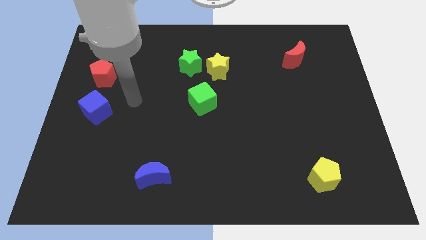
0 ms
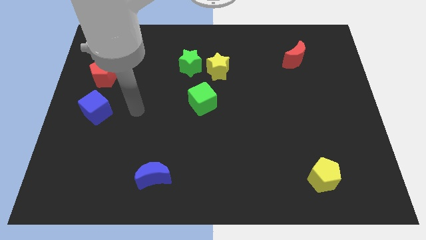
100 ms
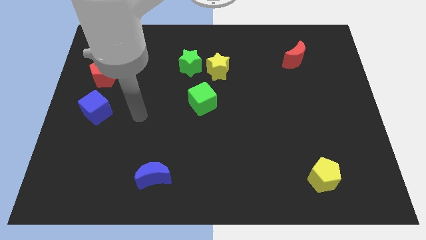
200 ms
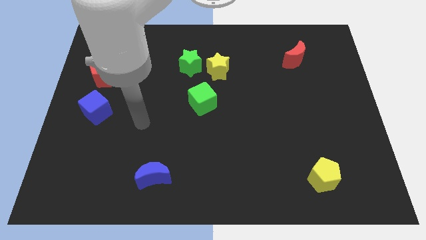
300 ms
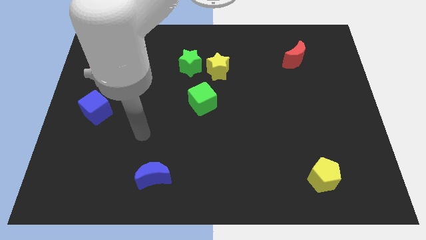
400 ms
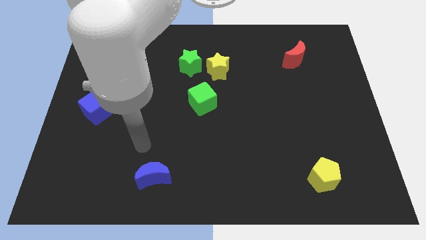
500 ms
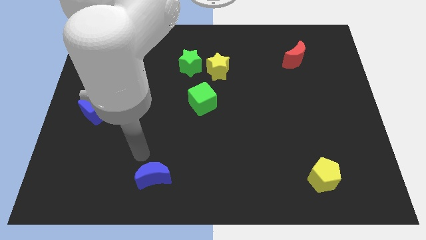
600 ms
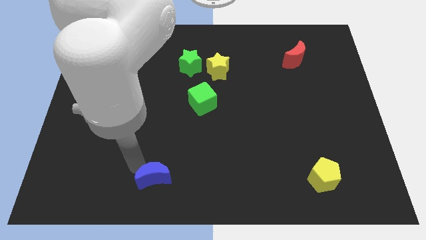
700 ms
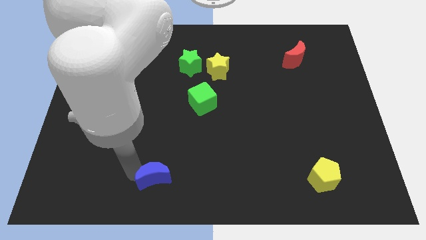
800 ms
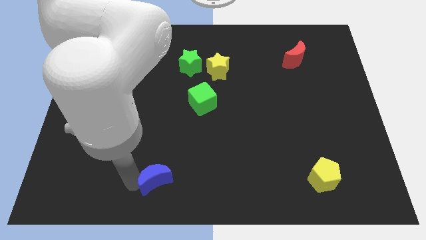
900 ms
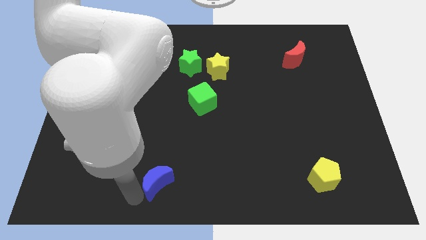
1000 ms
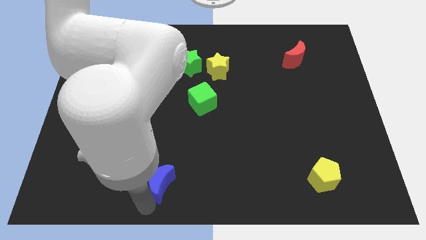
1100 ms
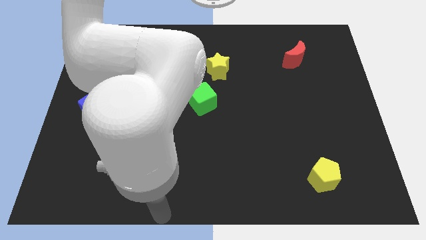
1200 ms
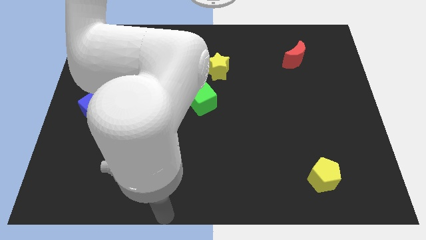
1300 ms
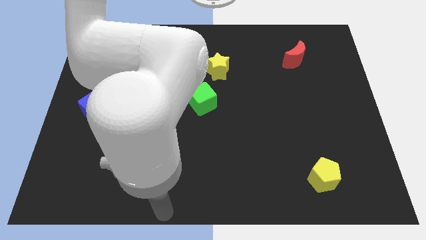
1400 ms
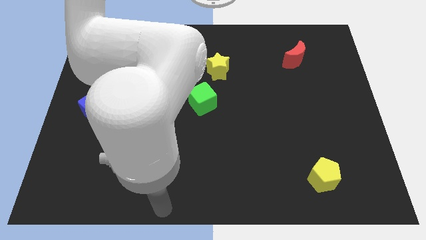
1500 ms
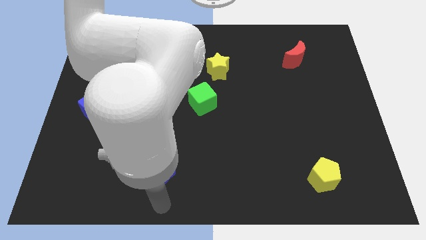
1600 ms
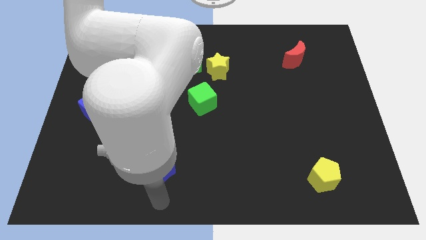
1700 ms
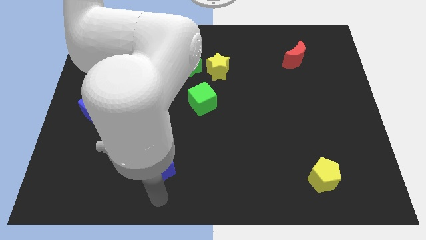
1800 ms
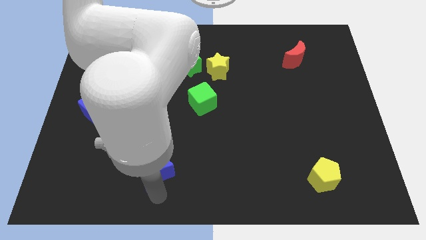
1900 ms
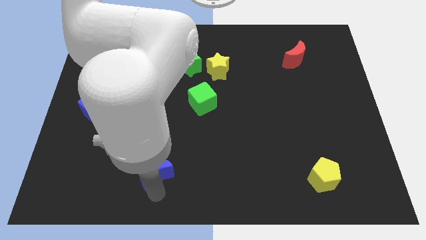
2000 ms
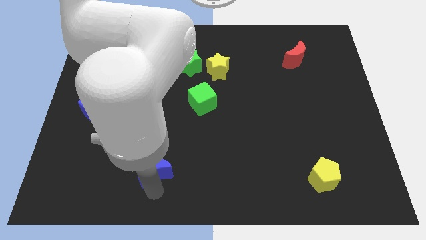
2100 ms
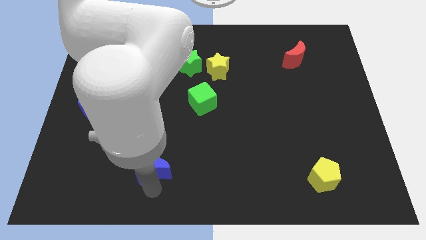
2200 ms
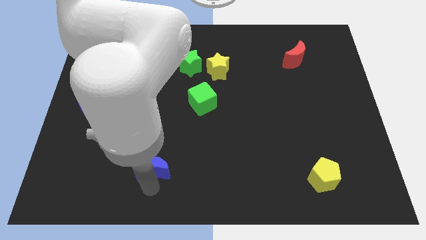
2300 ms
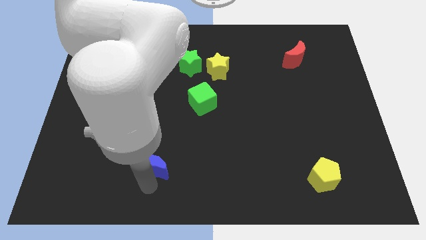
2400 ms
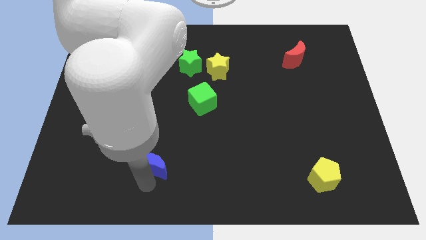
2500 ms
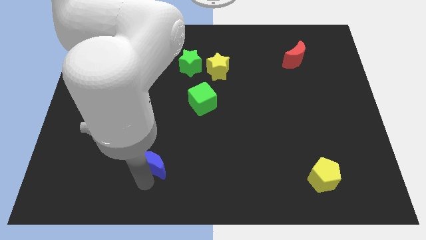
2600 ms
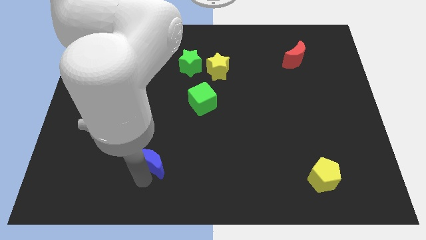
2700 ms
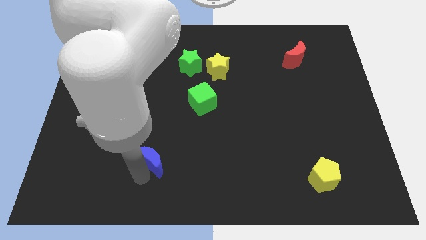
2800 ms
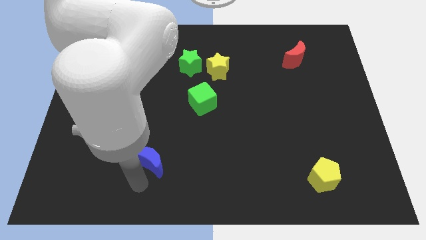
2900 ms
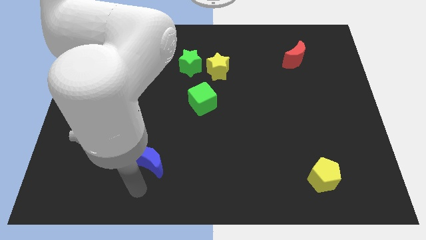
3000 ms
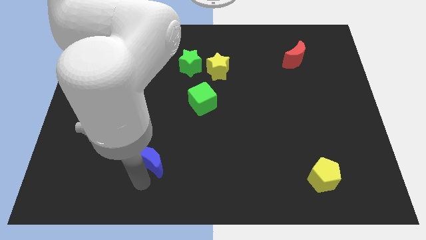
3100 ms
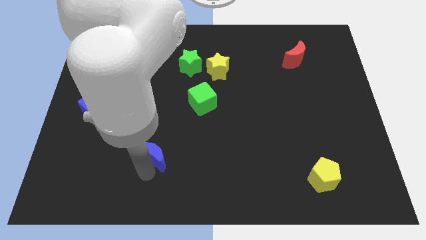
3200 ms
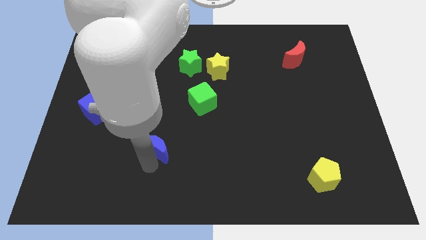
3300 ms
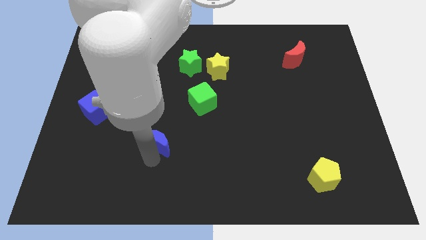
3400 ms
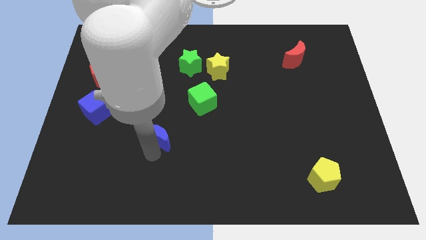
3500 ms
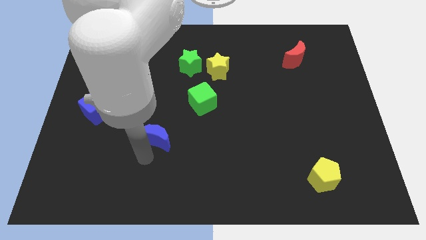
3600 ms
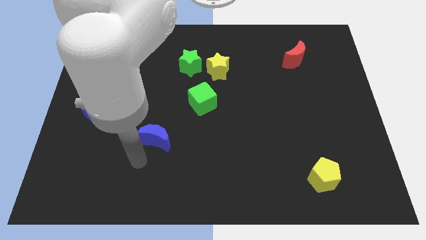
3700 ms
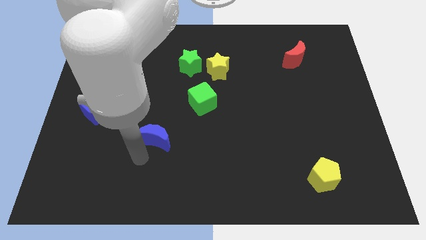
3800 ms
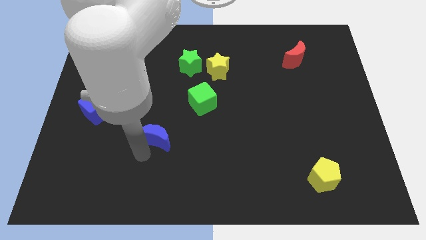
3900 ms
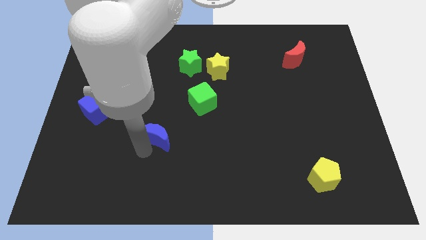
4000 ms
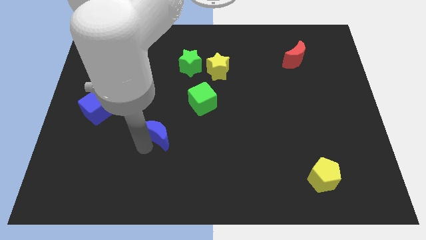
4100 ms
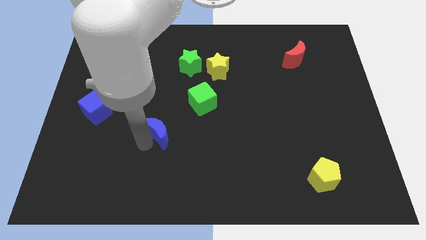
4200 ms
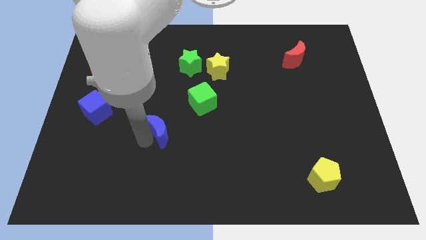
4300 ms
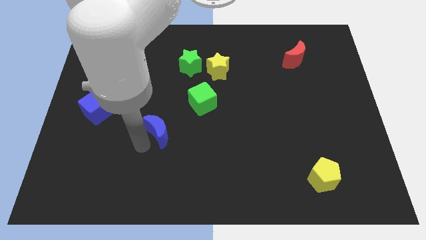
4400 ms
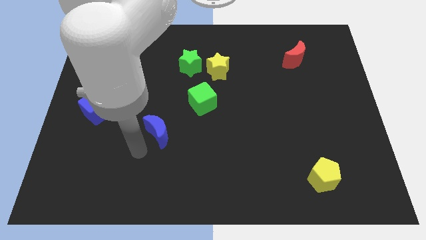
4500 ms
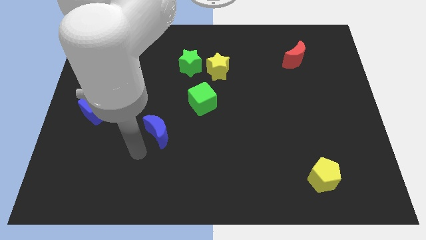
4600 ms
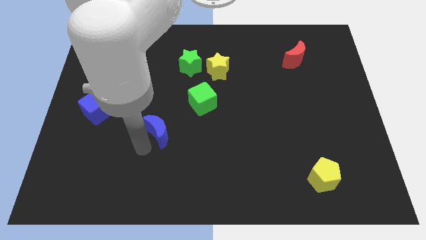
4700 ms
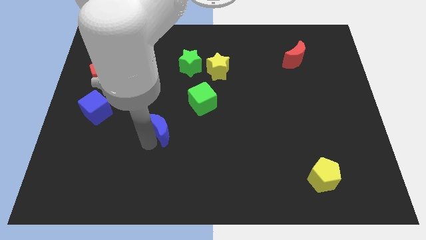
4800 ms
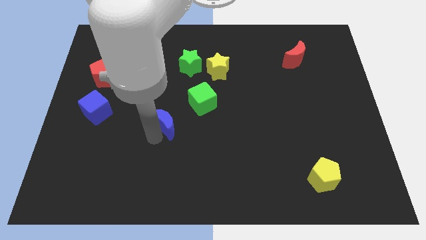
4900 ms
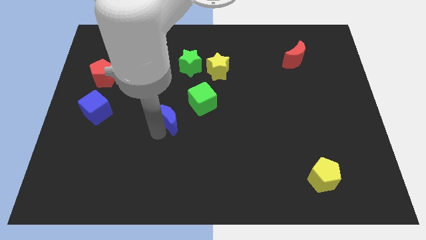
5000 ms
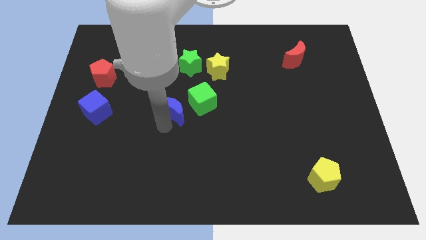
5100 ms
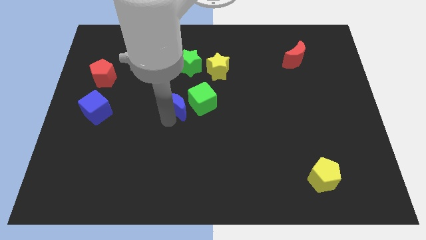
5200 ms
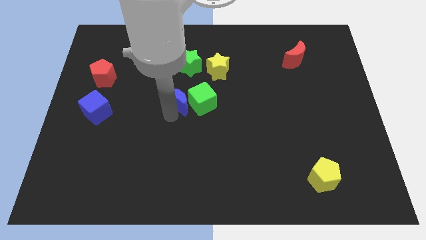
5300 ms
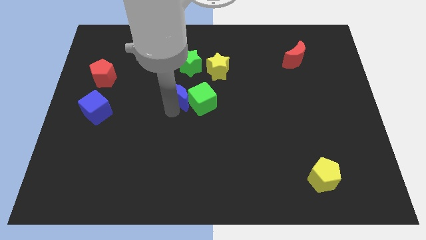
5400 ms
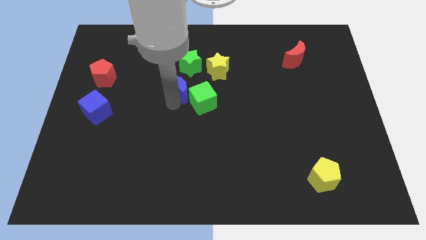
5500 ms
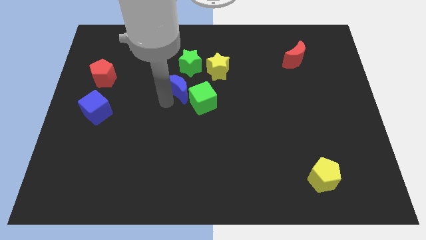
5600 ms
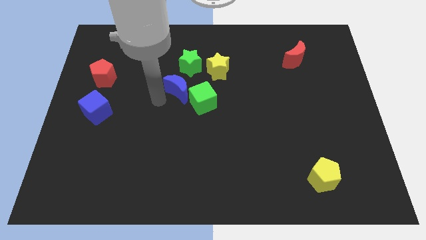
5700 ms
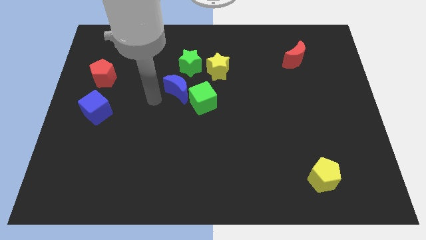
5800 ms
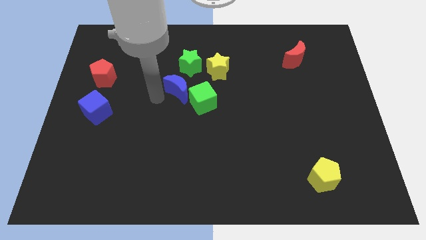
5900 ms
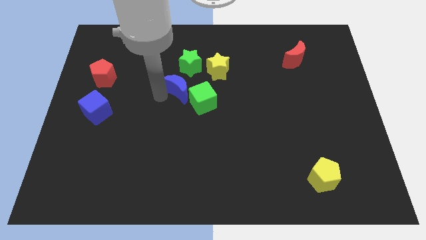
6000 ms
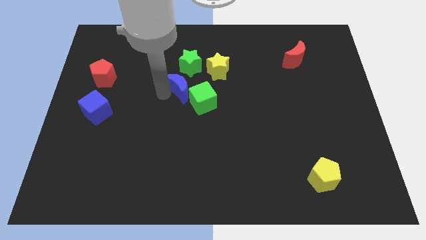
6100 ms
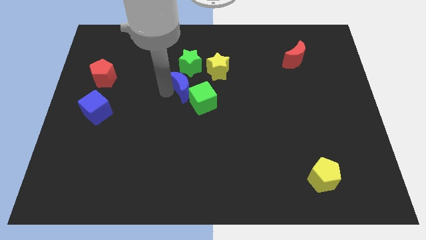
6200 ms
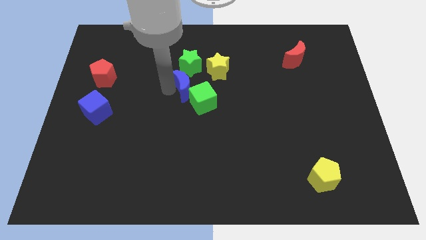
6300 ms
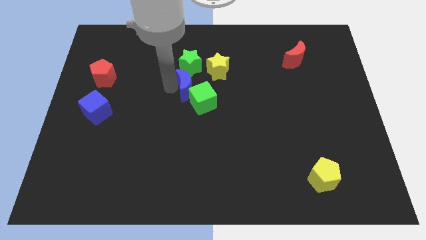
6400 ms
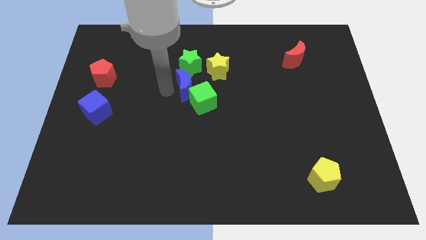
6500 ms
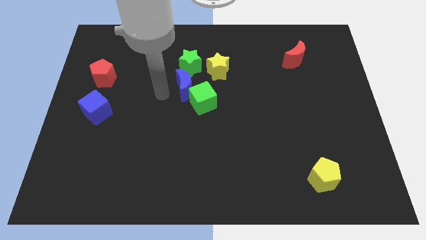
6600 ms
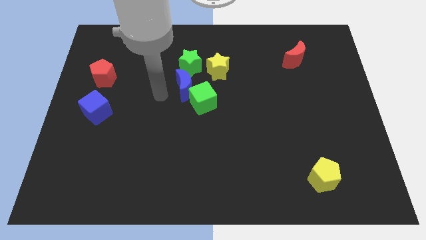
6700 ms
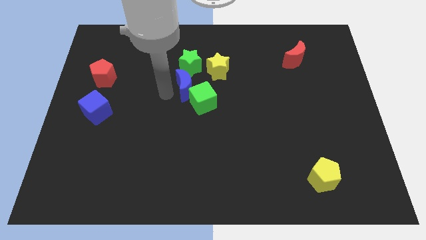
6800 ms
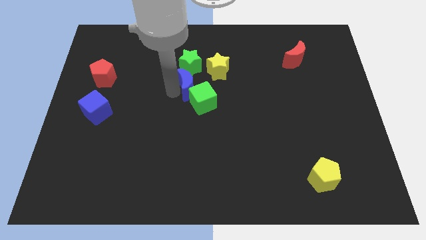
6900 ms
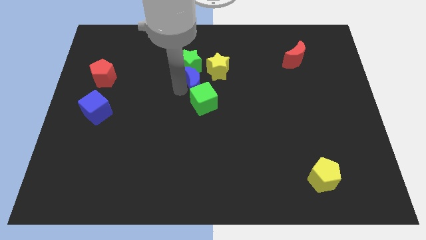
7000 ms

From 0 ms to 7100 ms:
put the blue moon diagonally down and to the right of the green star
